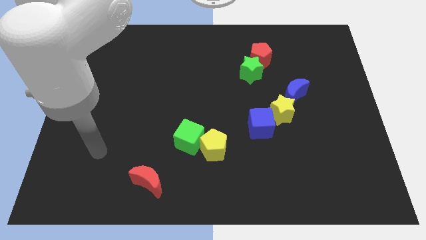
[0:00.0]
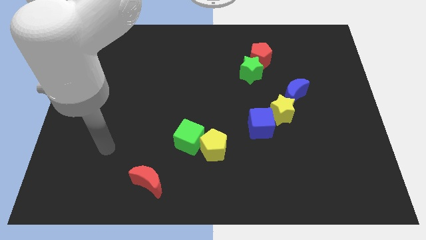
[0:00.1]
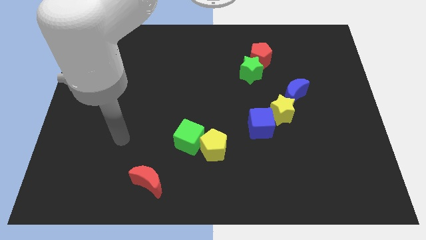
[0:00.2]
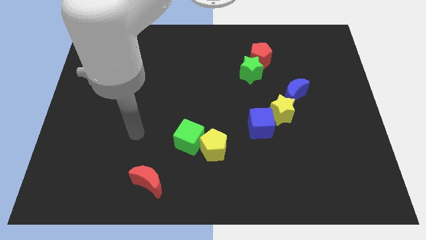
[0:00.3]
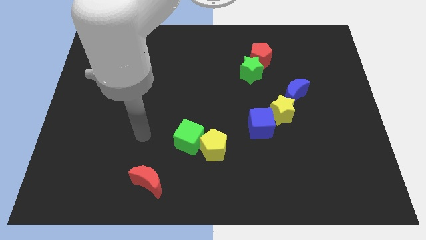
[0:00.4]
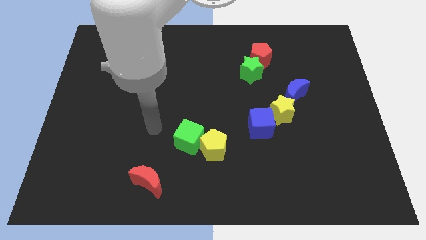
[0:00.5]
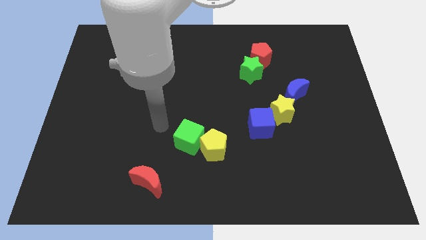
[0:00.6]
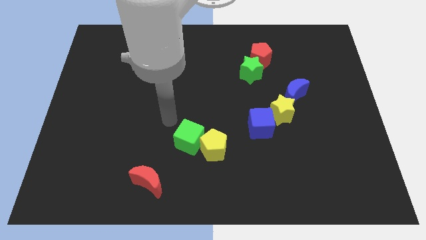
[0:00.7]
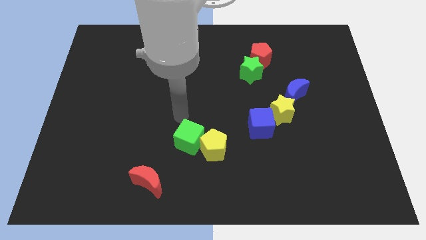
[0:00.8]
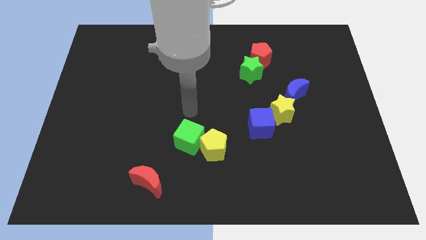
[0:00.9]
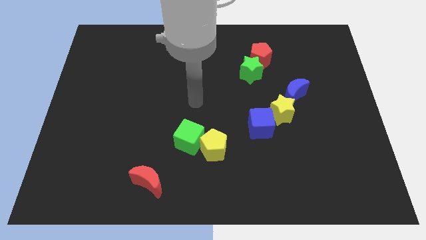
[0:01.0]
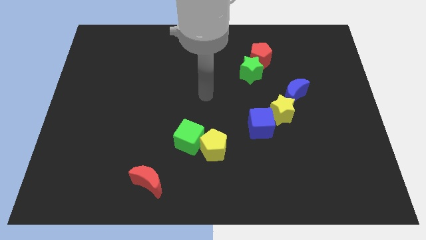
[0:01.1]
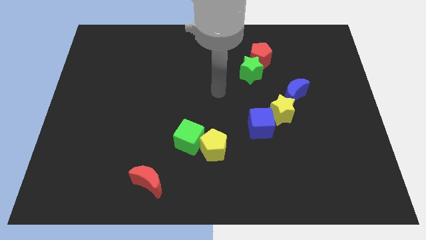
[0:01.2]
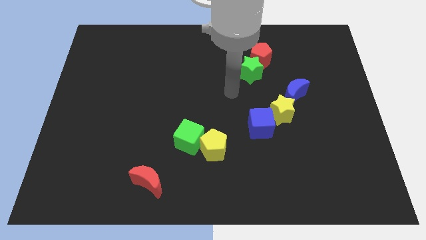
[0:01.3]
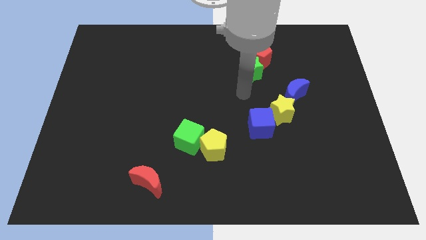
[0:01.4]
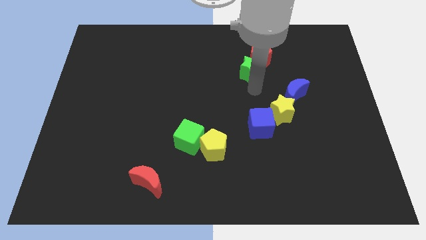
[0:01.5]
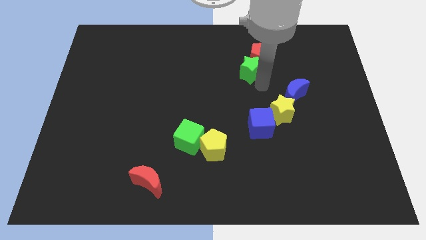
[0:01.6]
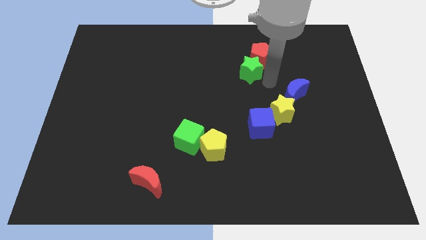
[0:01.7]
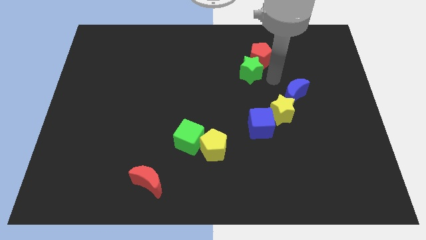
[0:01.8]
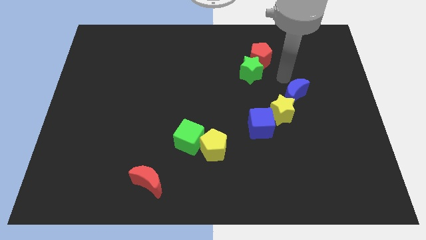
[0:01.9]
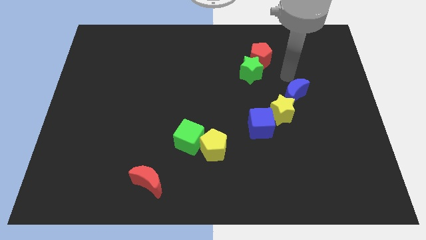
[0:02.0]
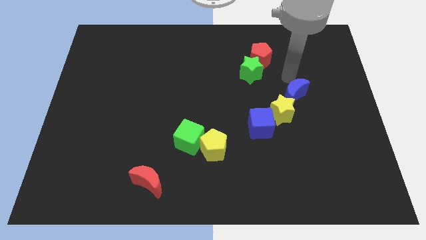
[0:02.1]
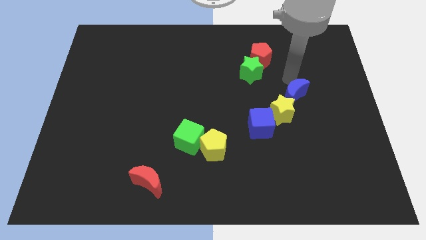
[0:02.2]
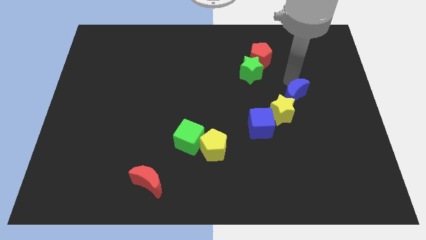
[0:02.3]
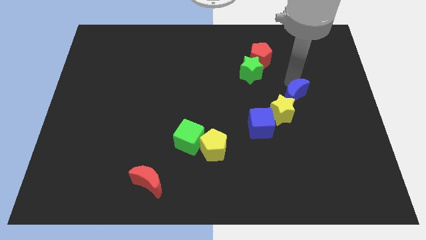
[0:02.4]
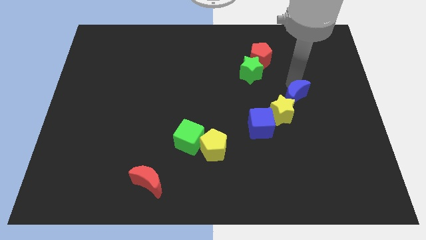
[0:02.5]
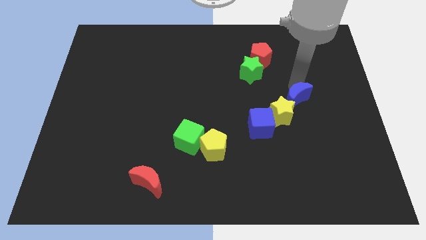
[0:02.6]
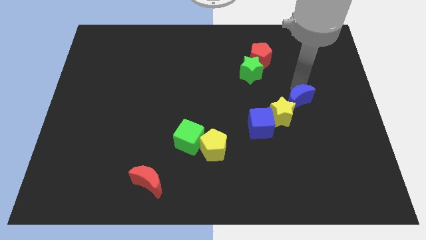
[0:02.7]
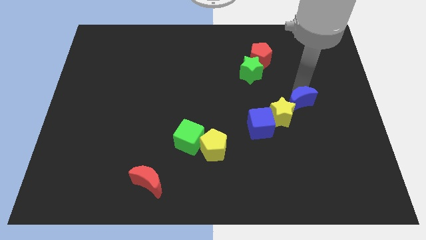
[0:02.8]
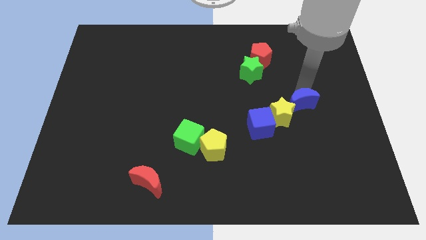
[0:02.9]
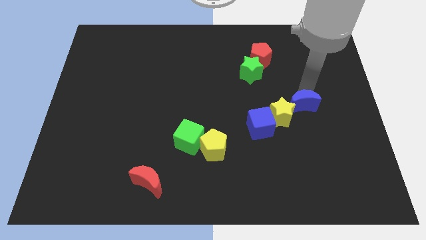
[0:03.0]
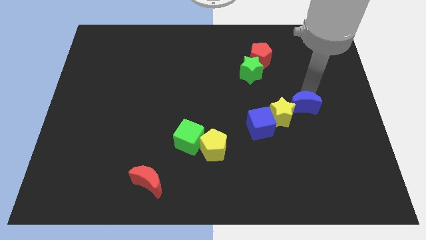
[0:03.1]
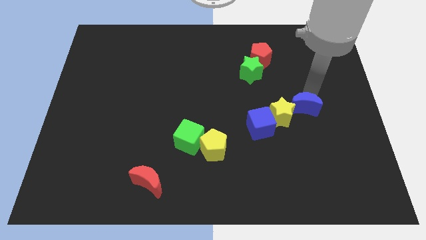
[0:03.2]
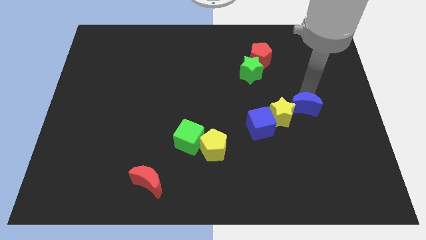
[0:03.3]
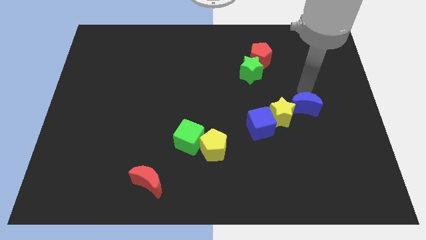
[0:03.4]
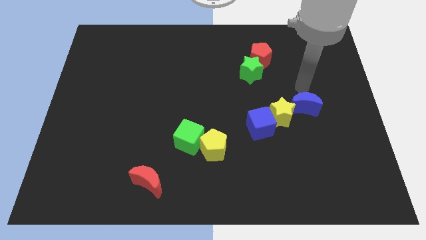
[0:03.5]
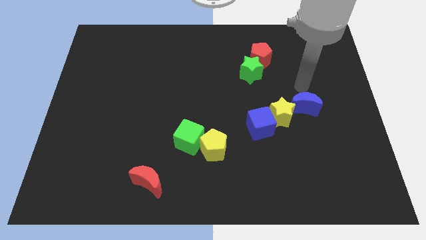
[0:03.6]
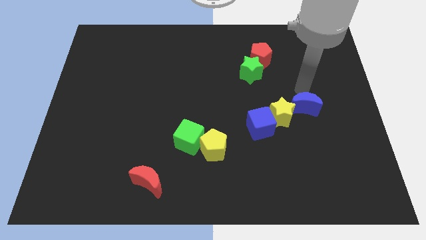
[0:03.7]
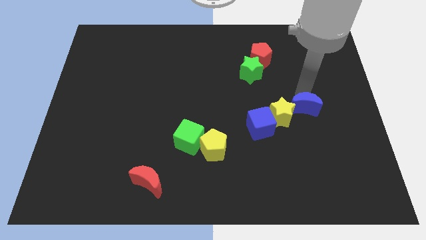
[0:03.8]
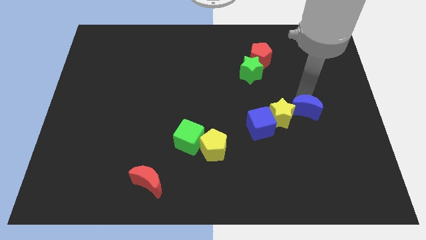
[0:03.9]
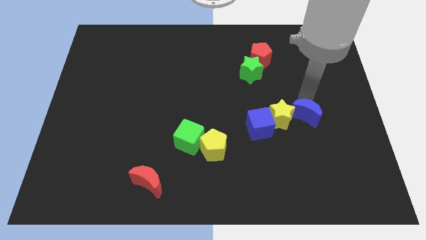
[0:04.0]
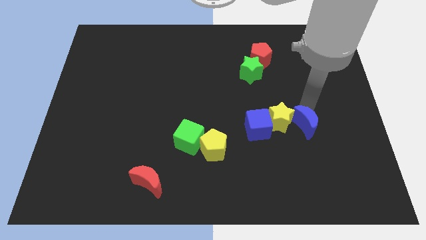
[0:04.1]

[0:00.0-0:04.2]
slide the blue moon a little down

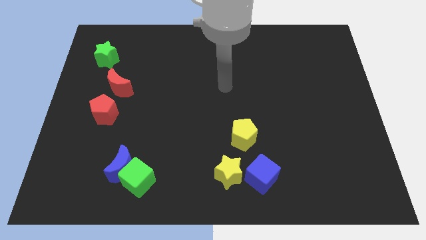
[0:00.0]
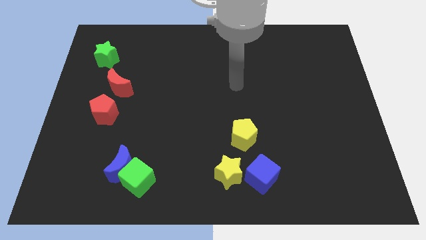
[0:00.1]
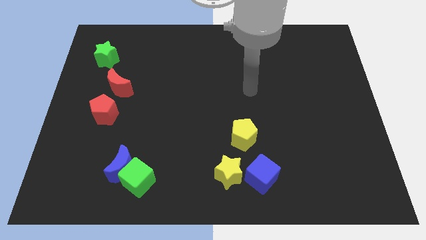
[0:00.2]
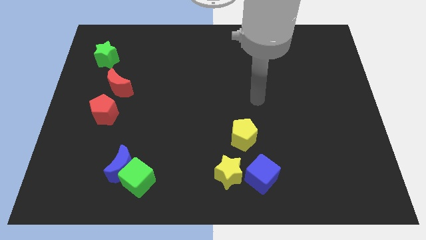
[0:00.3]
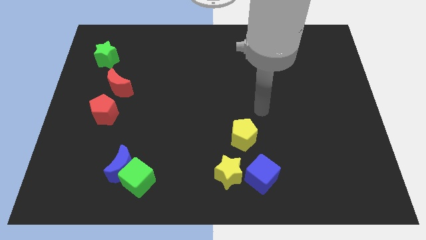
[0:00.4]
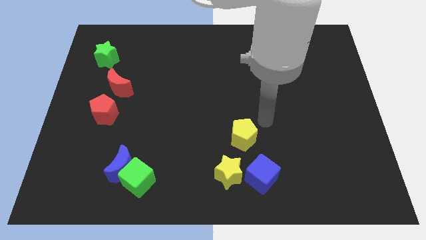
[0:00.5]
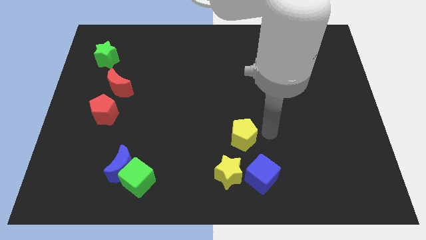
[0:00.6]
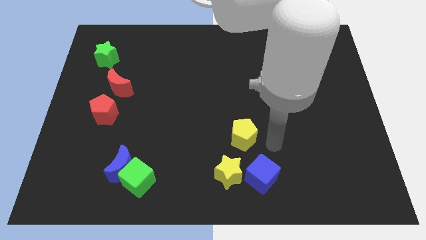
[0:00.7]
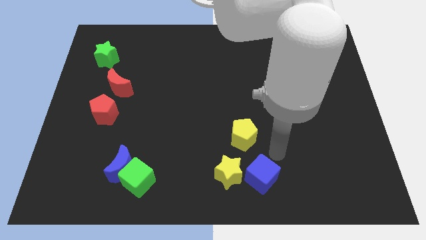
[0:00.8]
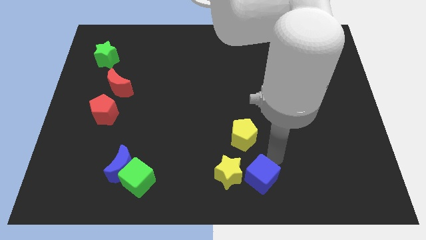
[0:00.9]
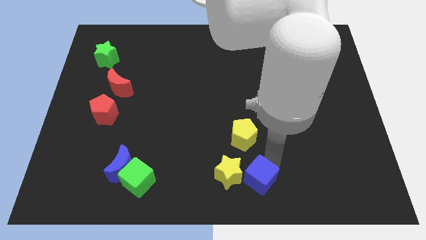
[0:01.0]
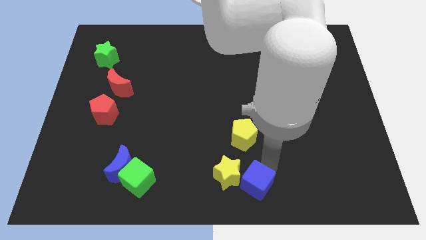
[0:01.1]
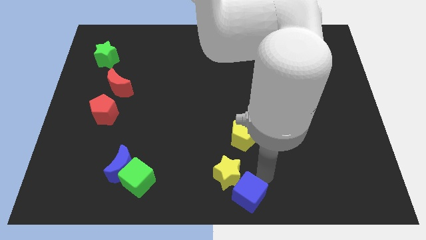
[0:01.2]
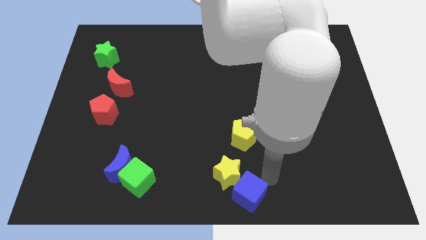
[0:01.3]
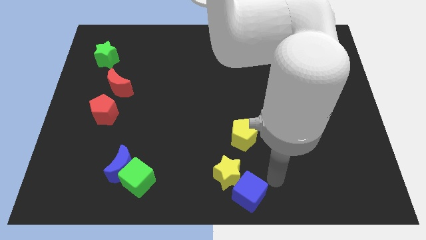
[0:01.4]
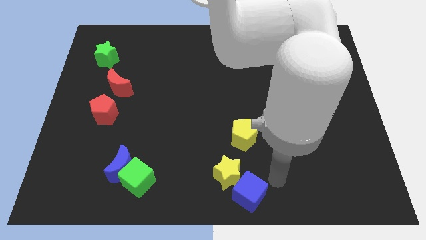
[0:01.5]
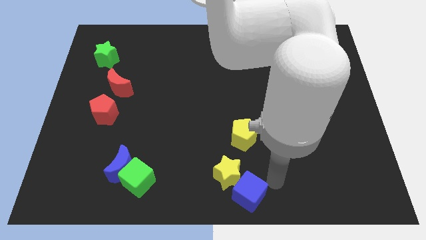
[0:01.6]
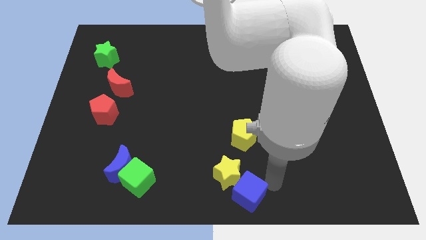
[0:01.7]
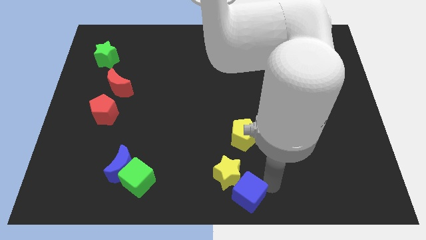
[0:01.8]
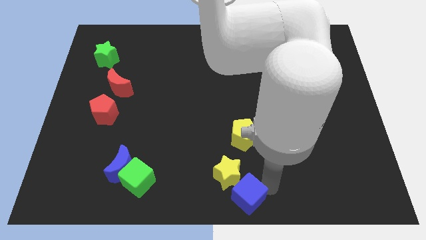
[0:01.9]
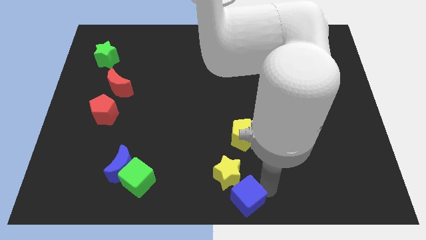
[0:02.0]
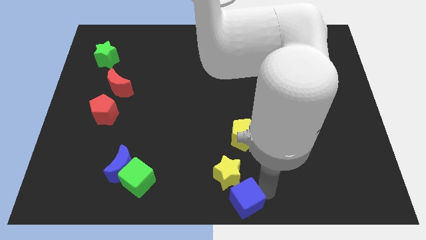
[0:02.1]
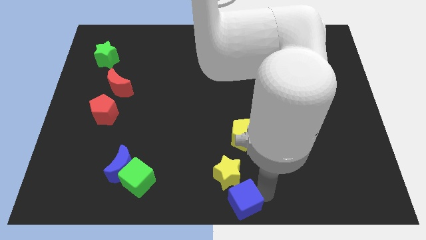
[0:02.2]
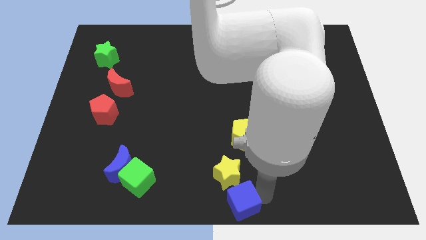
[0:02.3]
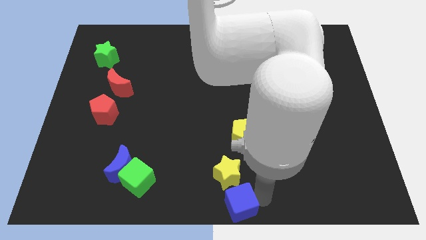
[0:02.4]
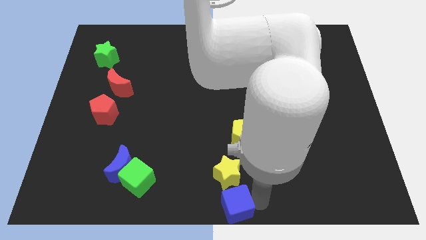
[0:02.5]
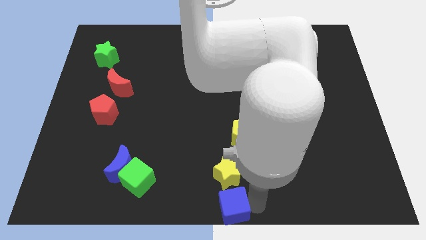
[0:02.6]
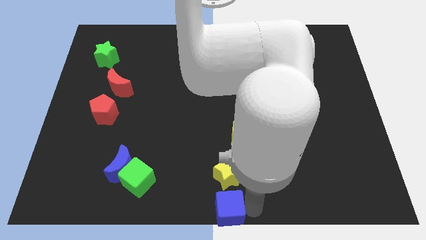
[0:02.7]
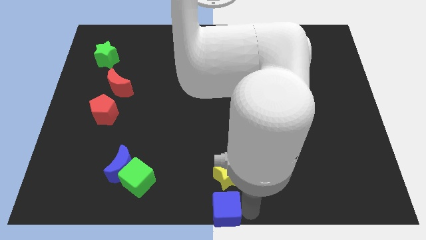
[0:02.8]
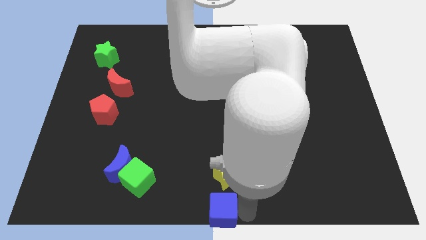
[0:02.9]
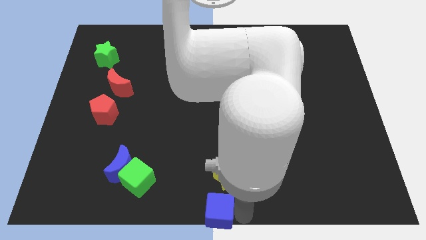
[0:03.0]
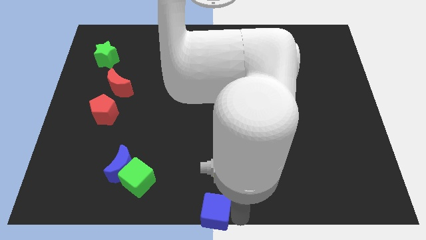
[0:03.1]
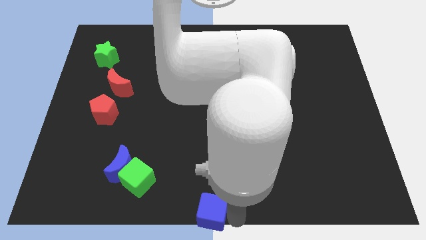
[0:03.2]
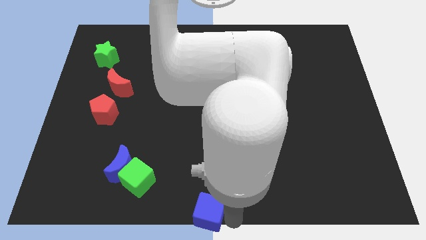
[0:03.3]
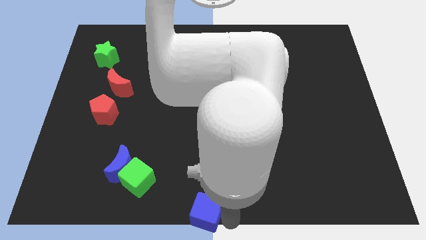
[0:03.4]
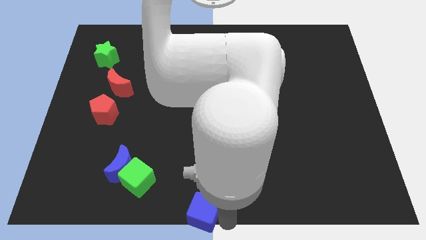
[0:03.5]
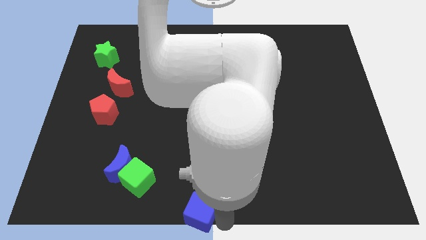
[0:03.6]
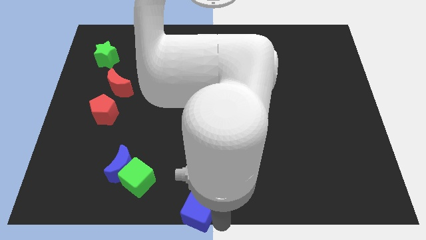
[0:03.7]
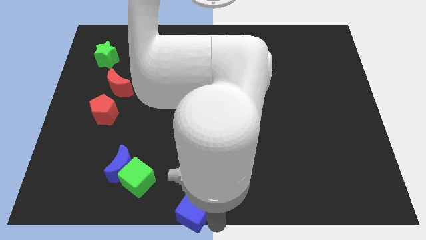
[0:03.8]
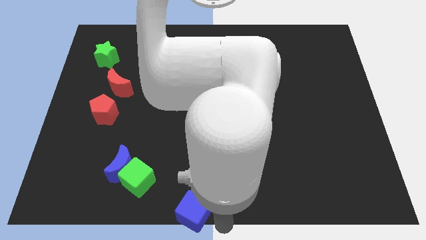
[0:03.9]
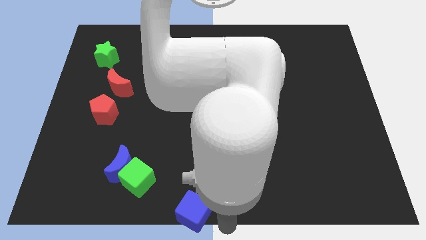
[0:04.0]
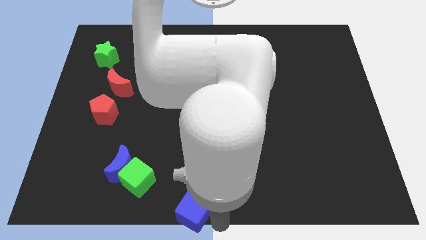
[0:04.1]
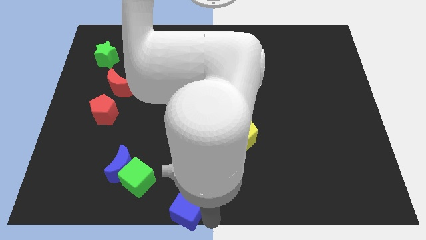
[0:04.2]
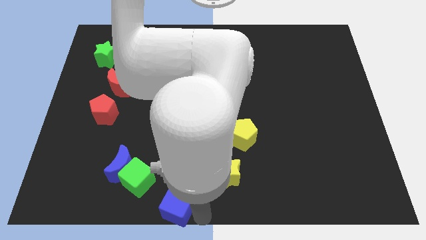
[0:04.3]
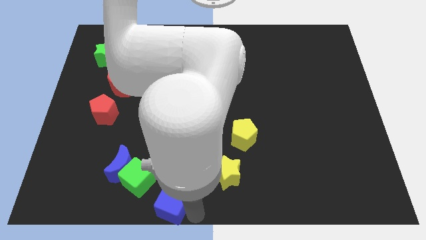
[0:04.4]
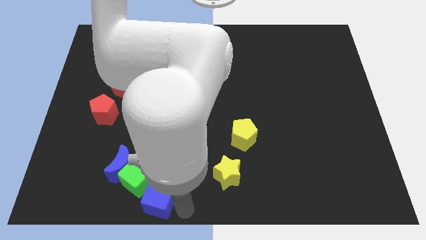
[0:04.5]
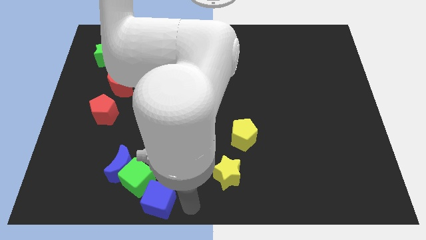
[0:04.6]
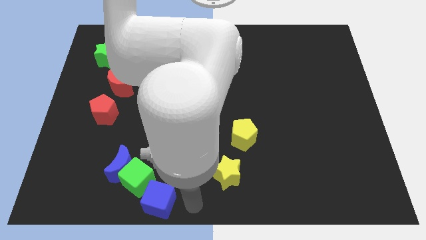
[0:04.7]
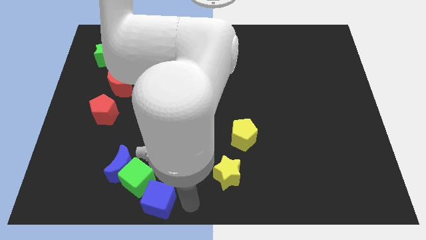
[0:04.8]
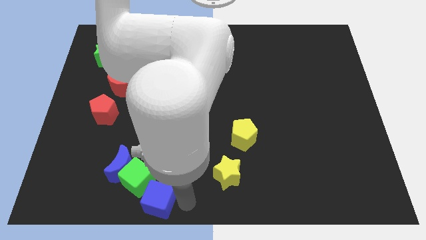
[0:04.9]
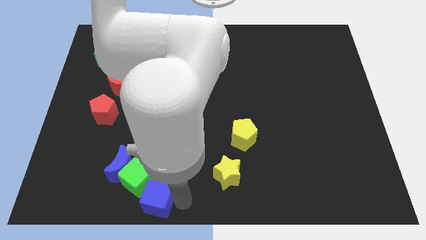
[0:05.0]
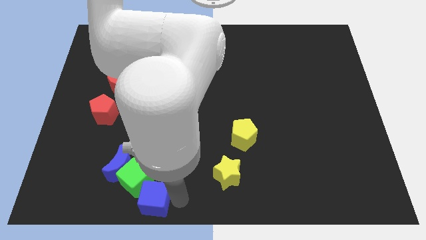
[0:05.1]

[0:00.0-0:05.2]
slide the blue cube left
